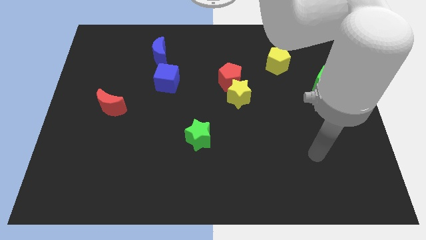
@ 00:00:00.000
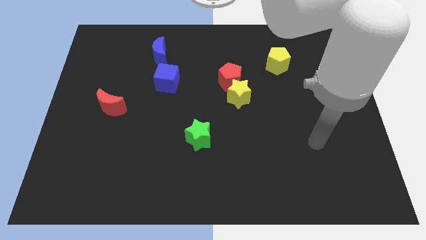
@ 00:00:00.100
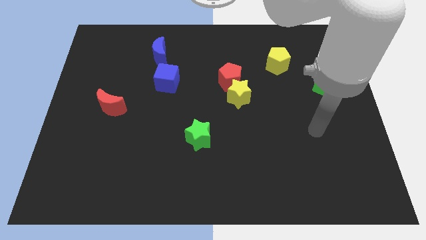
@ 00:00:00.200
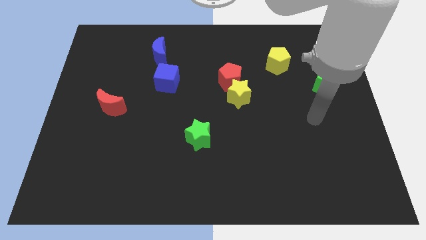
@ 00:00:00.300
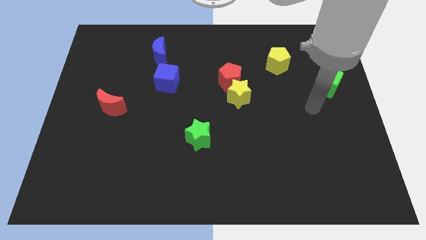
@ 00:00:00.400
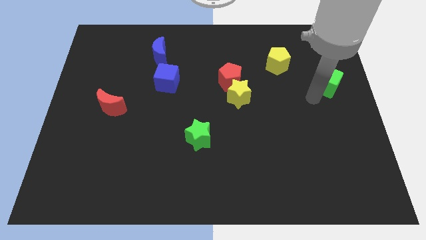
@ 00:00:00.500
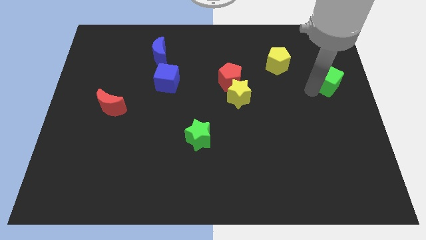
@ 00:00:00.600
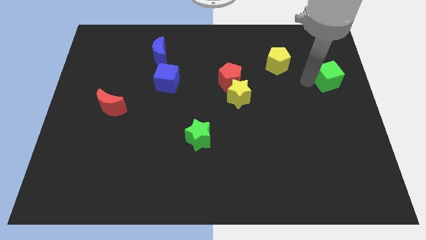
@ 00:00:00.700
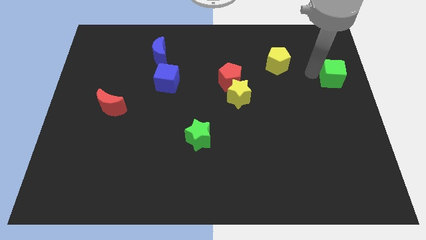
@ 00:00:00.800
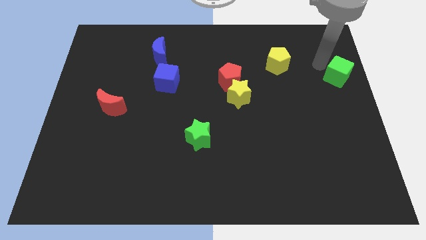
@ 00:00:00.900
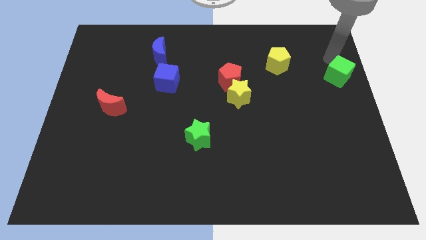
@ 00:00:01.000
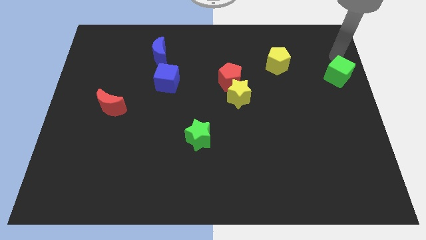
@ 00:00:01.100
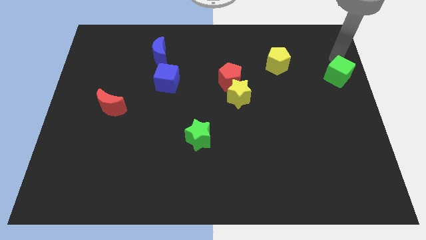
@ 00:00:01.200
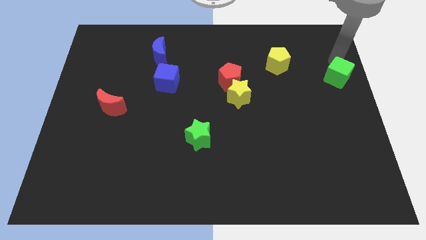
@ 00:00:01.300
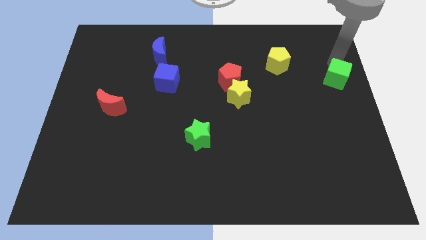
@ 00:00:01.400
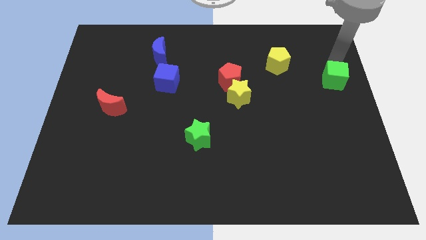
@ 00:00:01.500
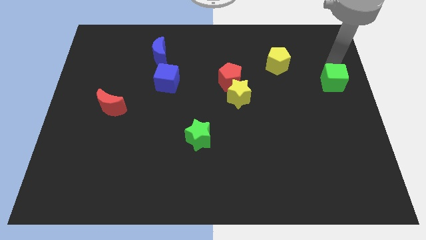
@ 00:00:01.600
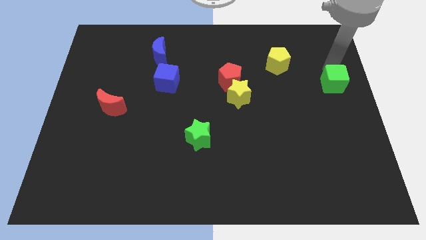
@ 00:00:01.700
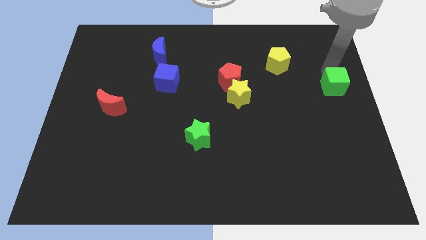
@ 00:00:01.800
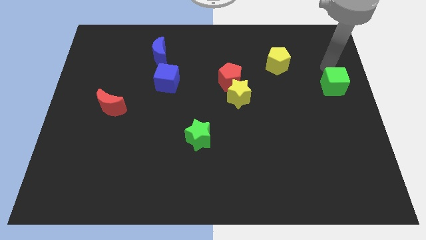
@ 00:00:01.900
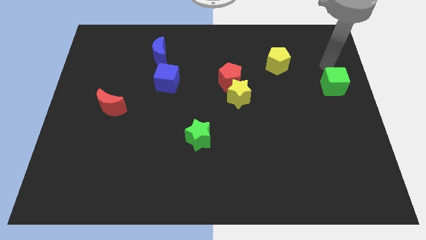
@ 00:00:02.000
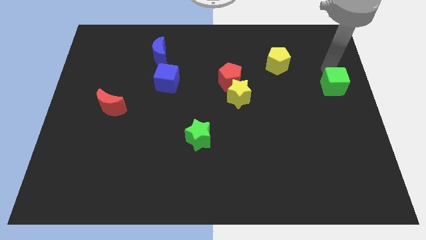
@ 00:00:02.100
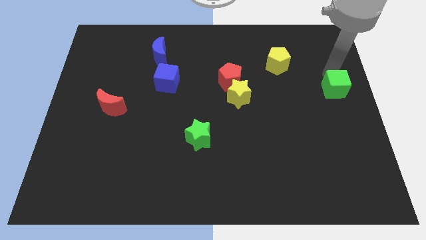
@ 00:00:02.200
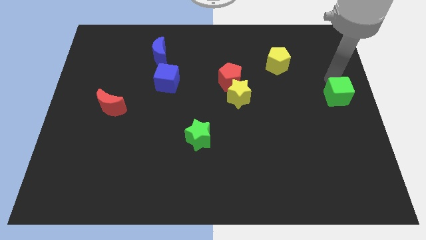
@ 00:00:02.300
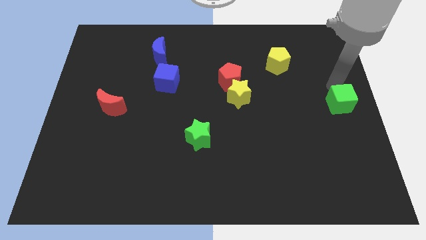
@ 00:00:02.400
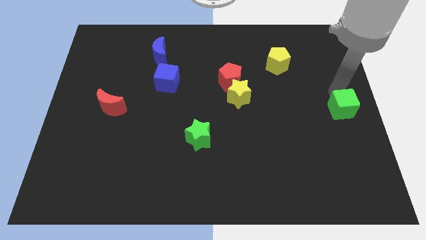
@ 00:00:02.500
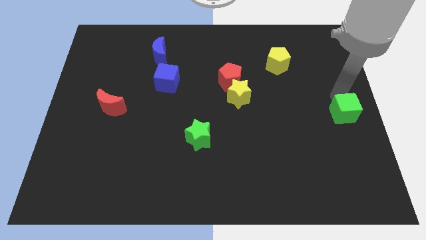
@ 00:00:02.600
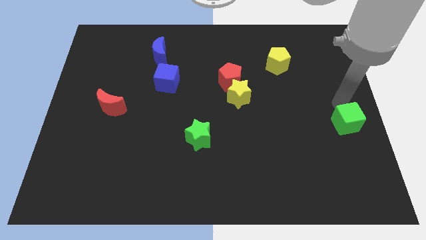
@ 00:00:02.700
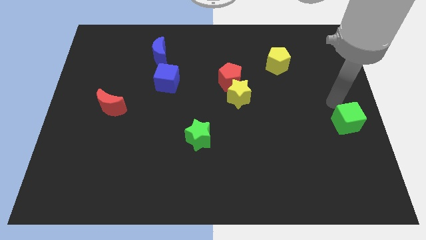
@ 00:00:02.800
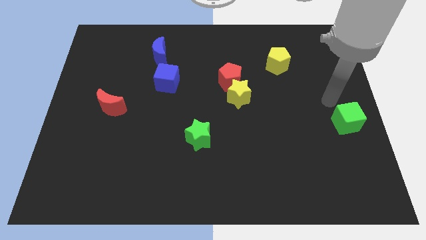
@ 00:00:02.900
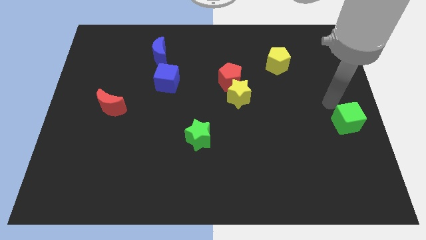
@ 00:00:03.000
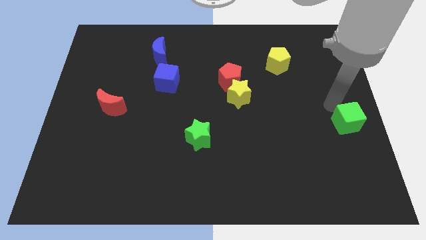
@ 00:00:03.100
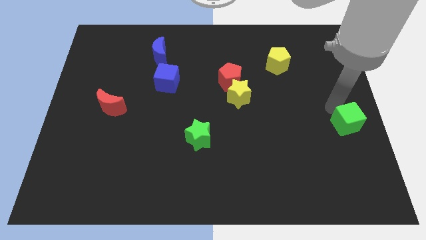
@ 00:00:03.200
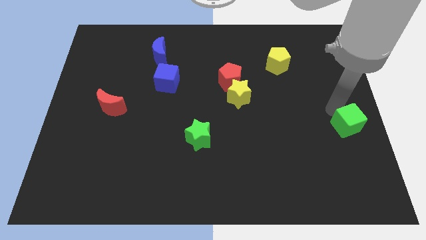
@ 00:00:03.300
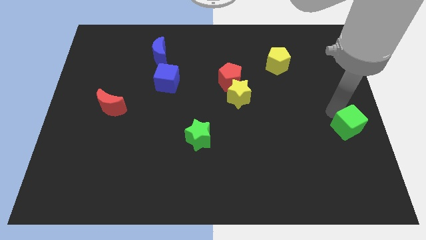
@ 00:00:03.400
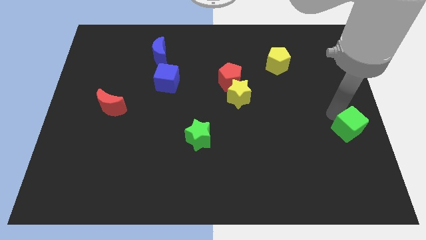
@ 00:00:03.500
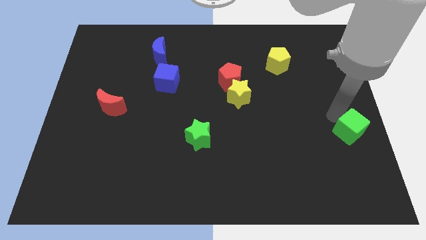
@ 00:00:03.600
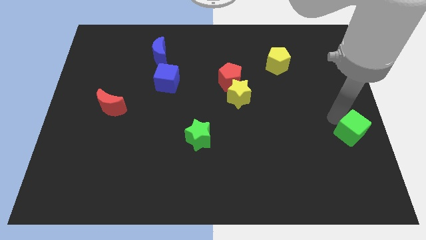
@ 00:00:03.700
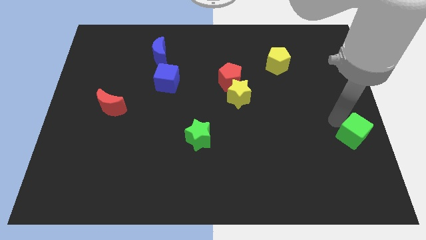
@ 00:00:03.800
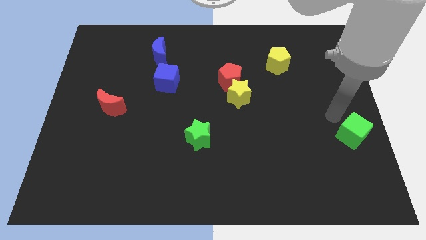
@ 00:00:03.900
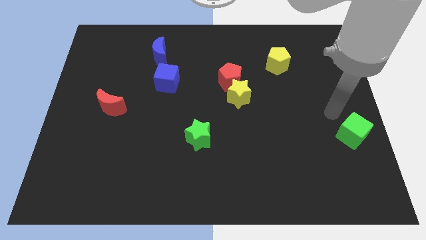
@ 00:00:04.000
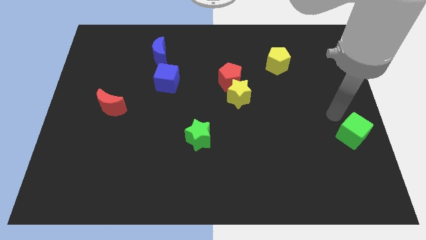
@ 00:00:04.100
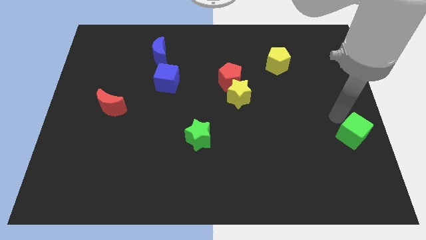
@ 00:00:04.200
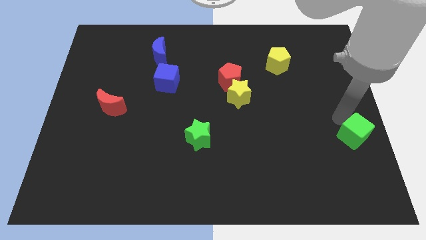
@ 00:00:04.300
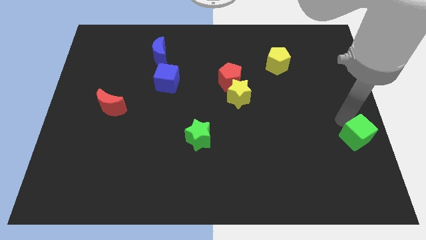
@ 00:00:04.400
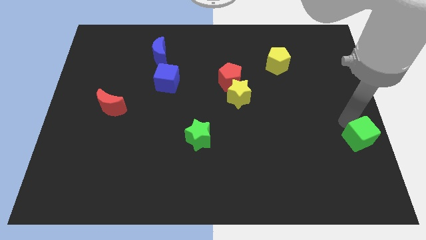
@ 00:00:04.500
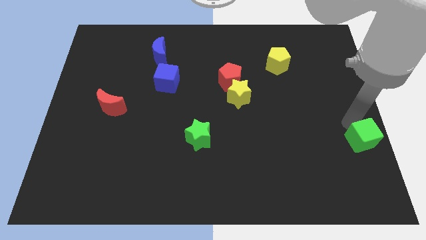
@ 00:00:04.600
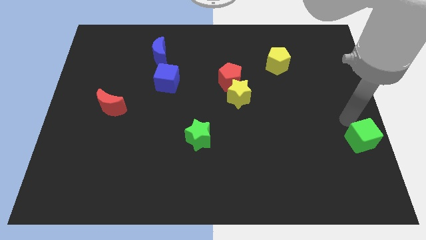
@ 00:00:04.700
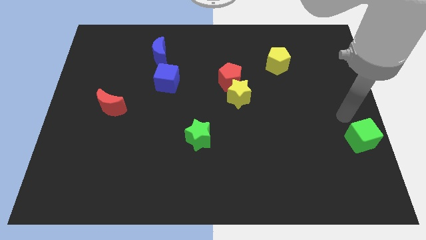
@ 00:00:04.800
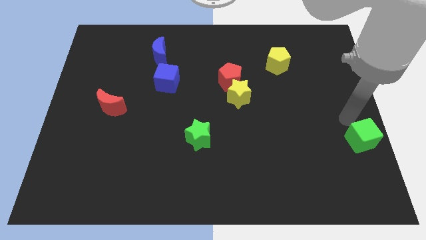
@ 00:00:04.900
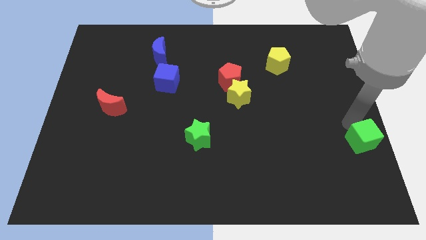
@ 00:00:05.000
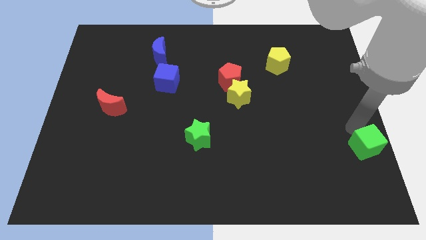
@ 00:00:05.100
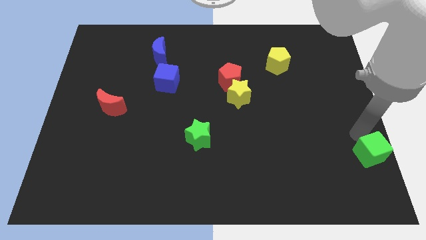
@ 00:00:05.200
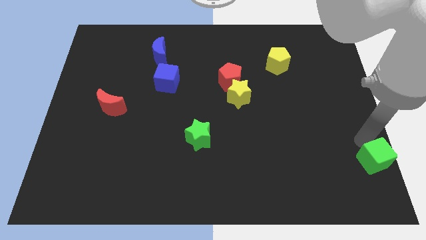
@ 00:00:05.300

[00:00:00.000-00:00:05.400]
move the green cube to the bottom right
